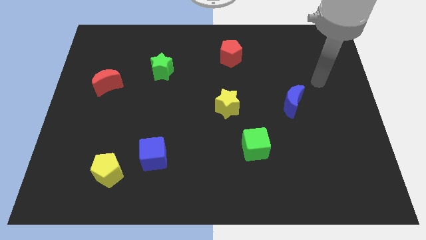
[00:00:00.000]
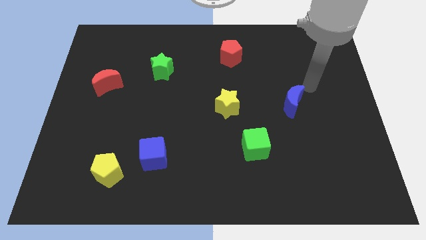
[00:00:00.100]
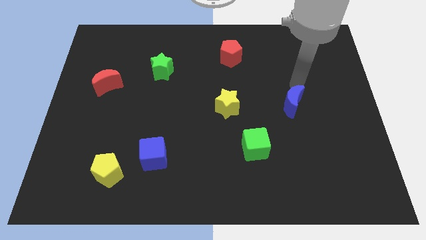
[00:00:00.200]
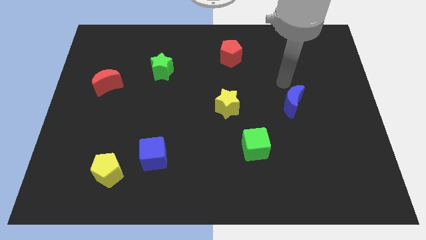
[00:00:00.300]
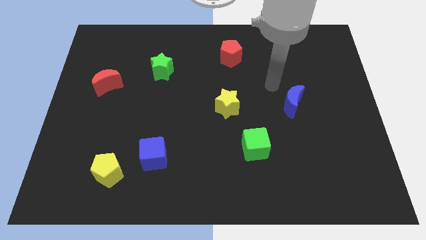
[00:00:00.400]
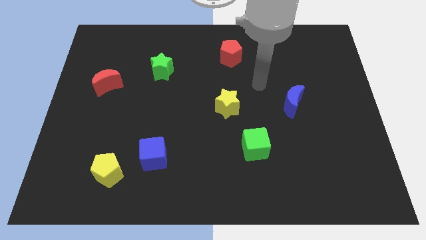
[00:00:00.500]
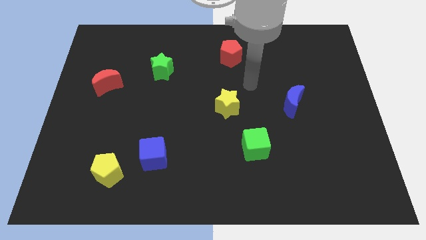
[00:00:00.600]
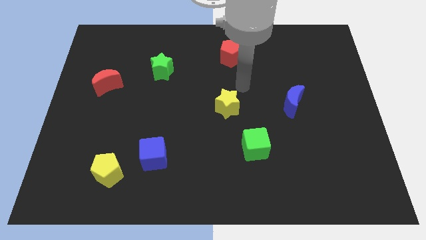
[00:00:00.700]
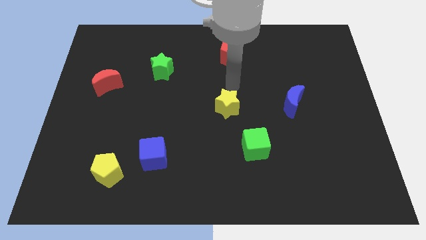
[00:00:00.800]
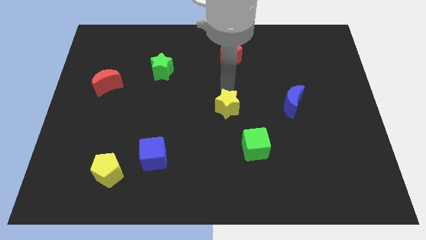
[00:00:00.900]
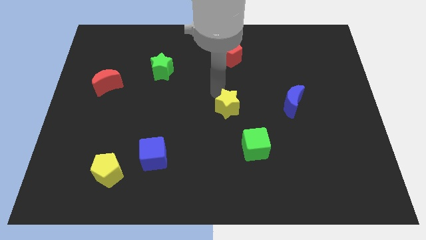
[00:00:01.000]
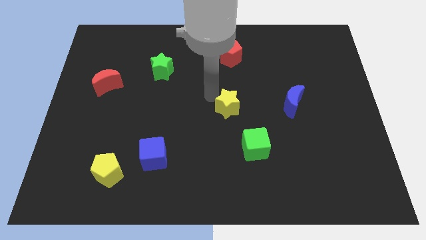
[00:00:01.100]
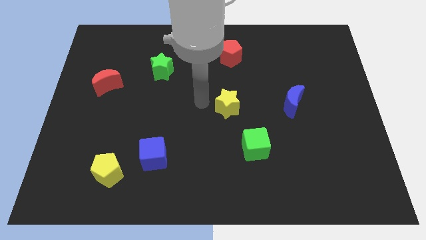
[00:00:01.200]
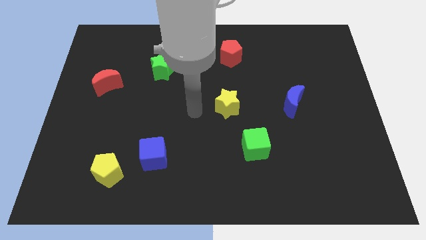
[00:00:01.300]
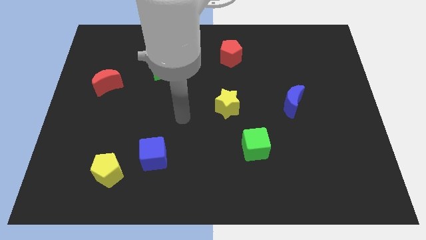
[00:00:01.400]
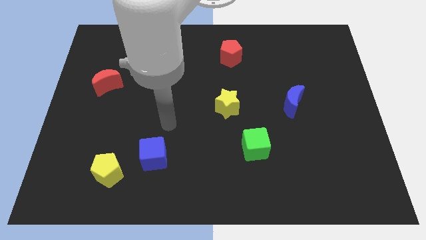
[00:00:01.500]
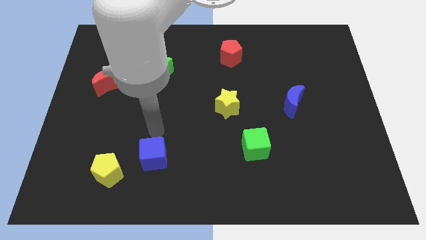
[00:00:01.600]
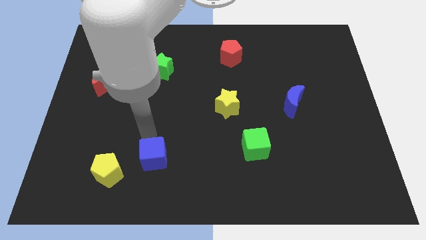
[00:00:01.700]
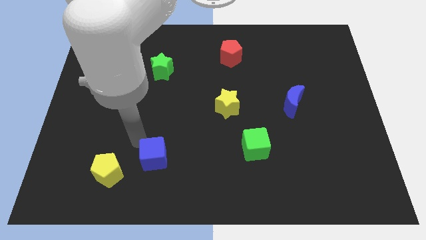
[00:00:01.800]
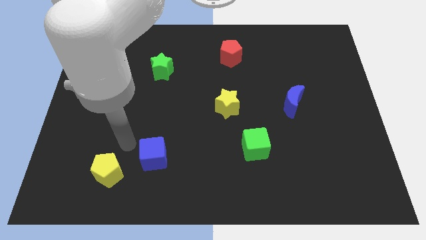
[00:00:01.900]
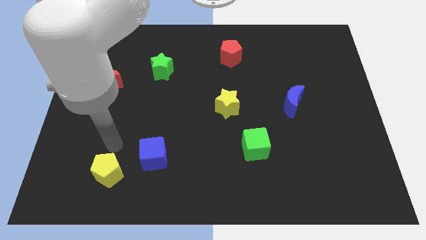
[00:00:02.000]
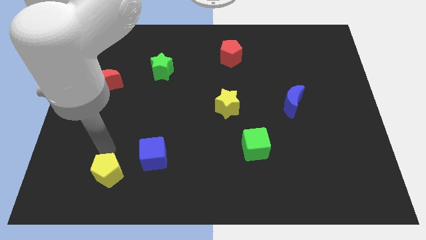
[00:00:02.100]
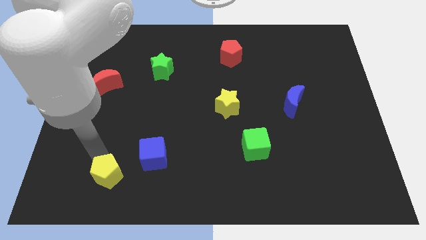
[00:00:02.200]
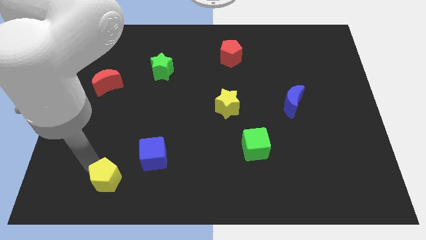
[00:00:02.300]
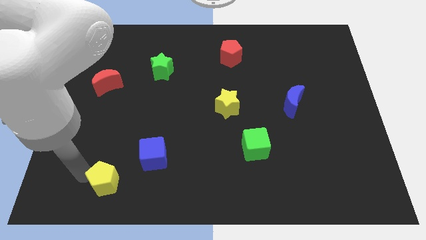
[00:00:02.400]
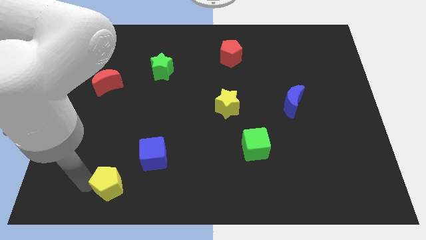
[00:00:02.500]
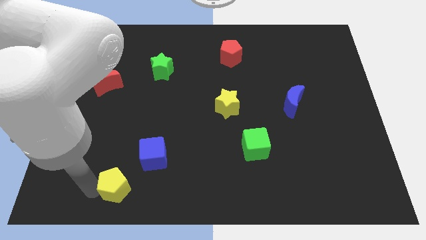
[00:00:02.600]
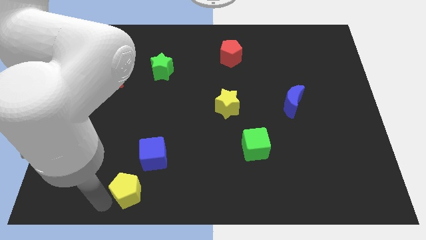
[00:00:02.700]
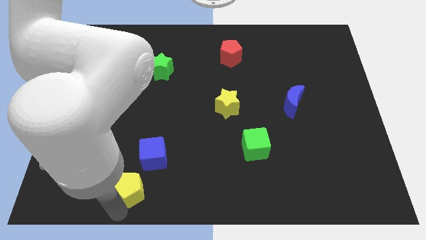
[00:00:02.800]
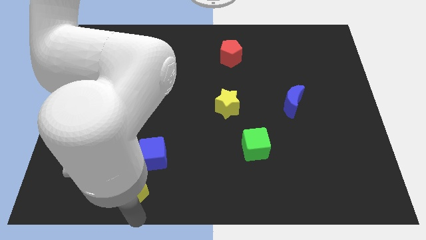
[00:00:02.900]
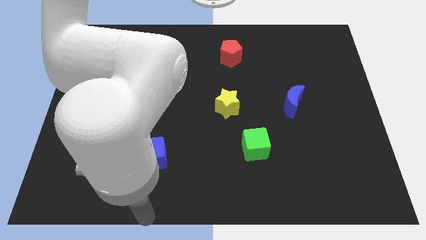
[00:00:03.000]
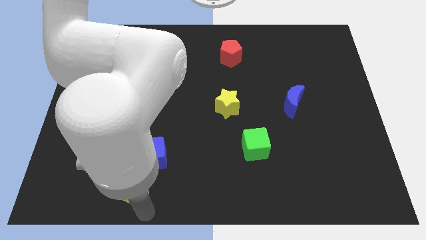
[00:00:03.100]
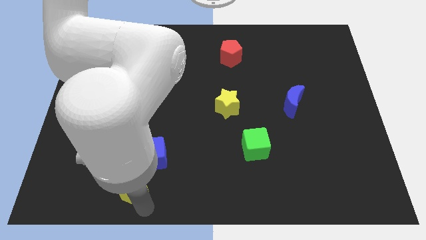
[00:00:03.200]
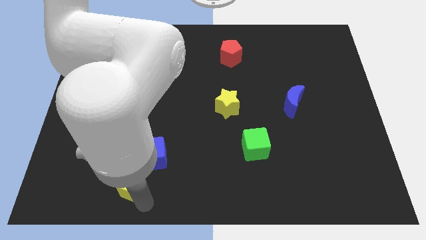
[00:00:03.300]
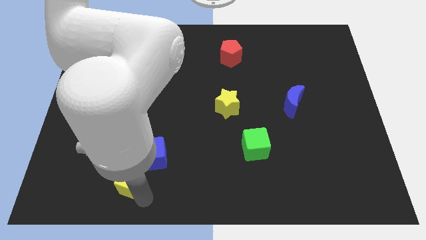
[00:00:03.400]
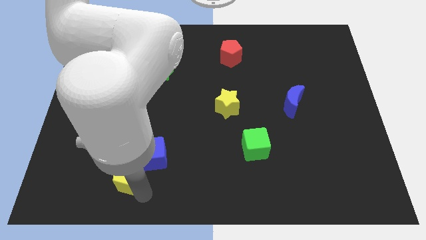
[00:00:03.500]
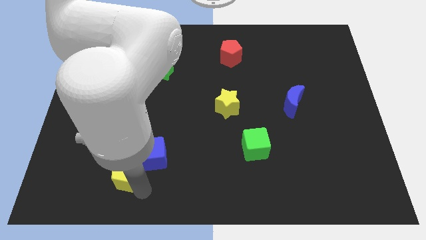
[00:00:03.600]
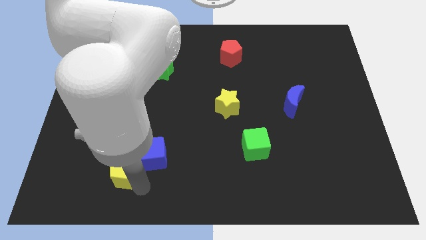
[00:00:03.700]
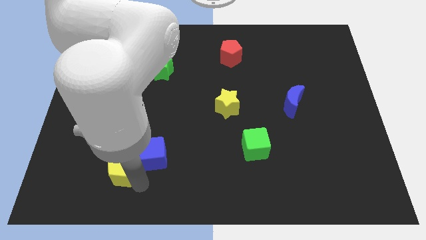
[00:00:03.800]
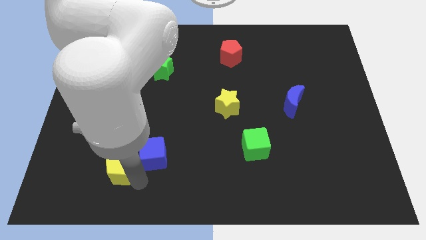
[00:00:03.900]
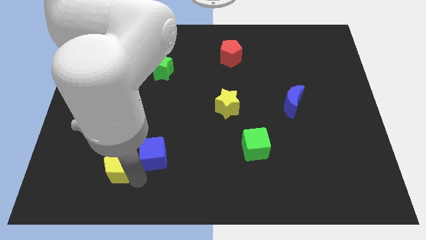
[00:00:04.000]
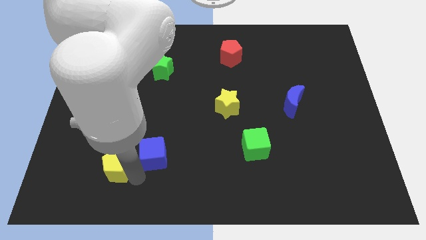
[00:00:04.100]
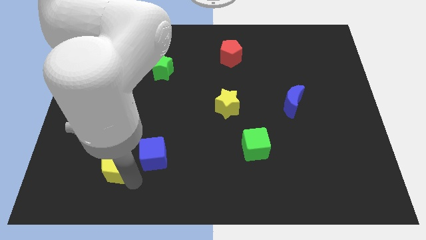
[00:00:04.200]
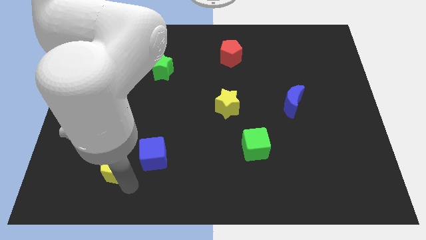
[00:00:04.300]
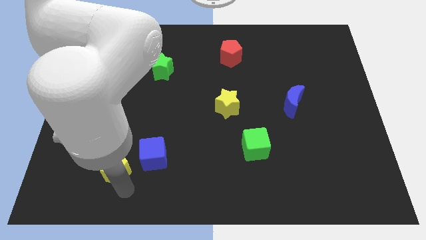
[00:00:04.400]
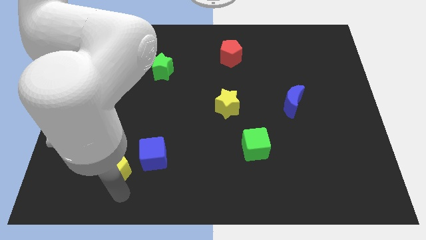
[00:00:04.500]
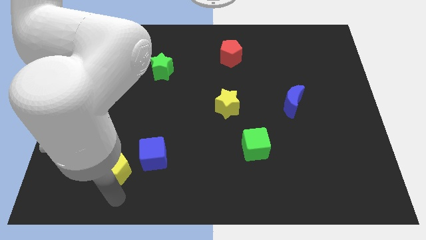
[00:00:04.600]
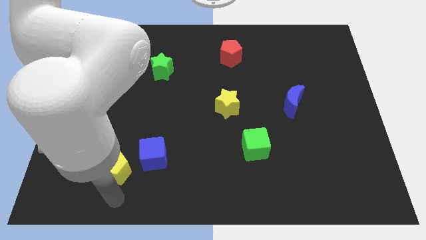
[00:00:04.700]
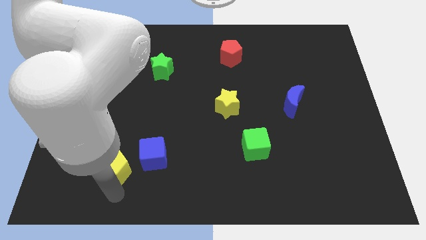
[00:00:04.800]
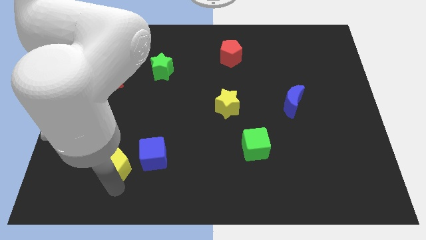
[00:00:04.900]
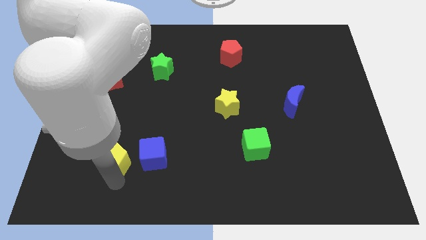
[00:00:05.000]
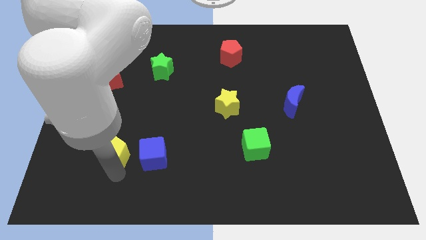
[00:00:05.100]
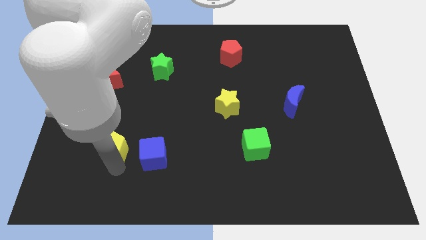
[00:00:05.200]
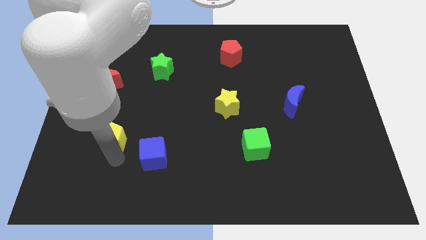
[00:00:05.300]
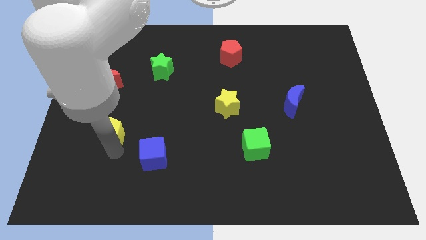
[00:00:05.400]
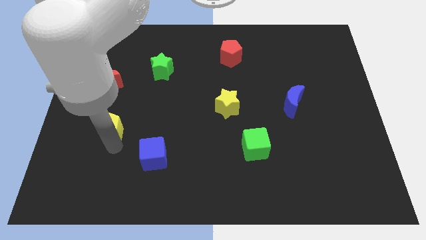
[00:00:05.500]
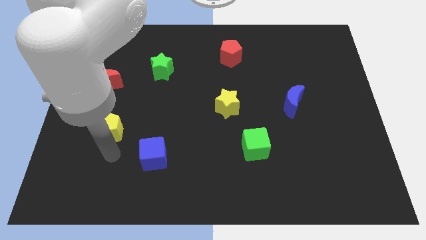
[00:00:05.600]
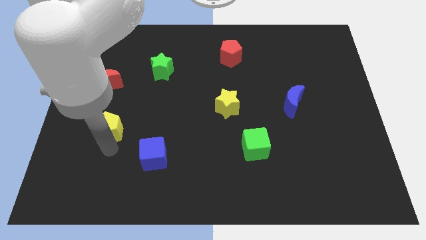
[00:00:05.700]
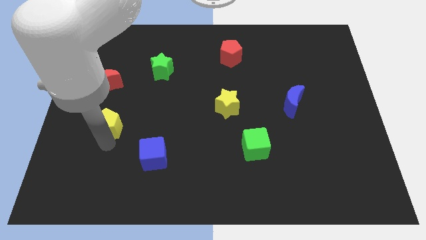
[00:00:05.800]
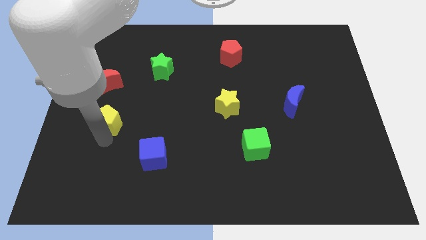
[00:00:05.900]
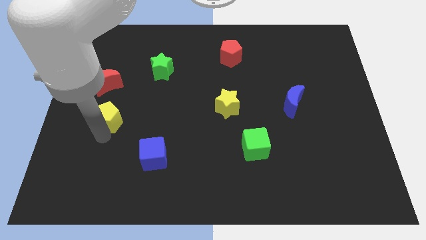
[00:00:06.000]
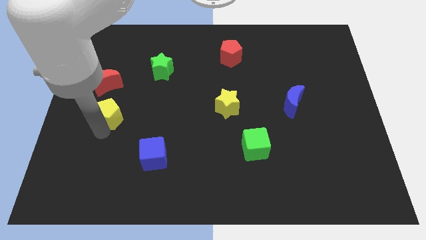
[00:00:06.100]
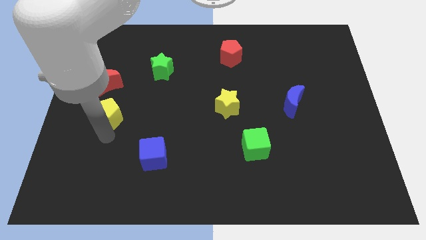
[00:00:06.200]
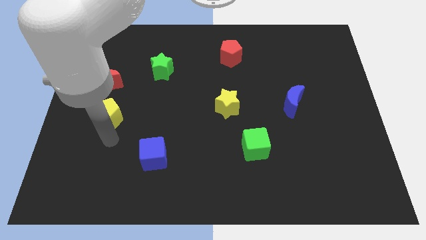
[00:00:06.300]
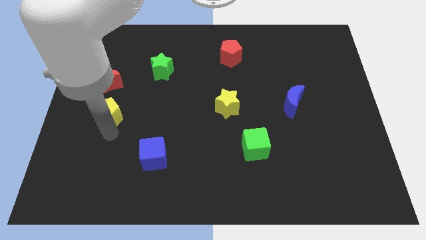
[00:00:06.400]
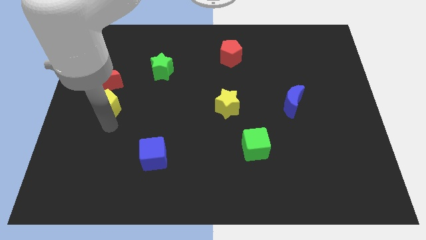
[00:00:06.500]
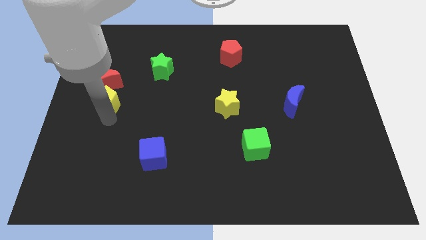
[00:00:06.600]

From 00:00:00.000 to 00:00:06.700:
slide the yellow pentagon to the red moon

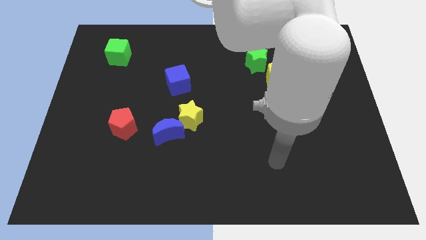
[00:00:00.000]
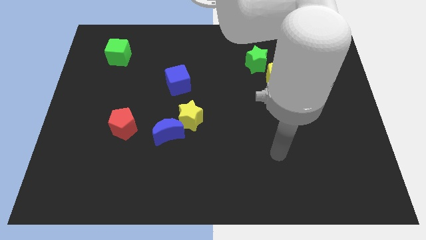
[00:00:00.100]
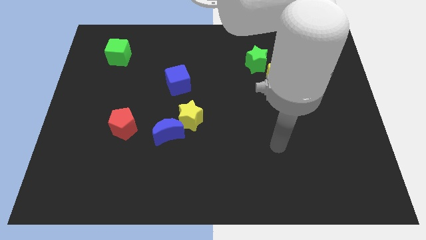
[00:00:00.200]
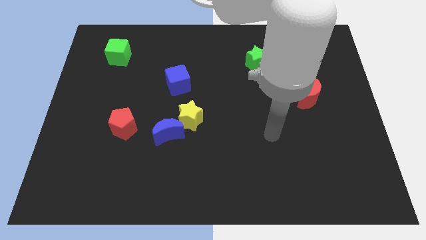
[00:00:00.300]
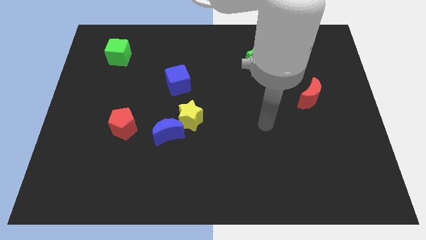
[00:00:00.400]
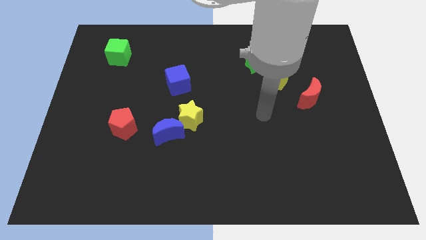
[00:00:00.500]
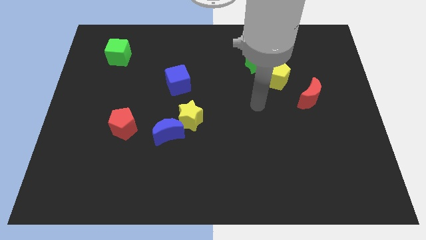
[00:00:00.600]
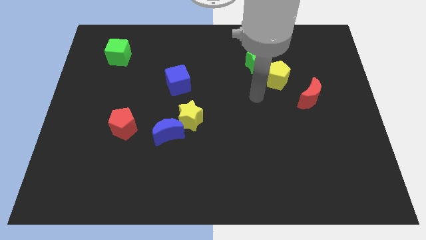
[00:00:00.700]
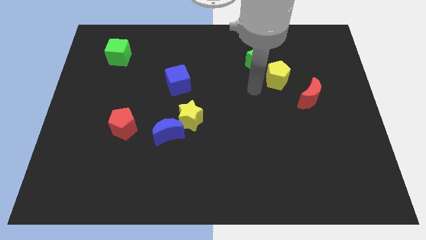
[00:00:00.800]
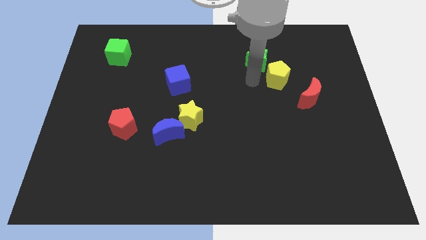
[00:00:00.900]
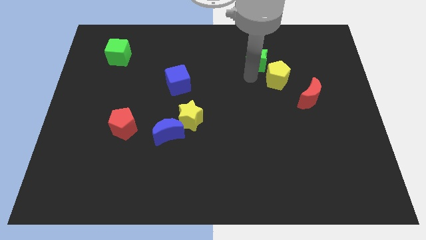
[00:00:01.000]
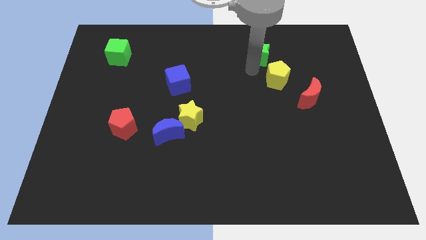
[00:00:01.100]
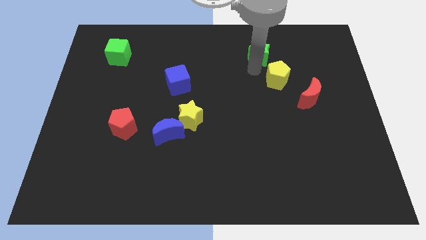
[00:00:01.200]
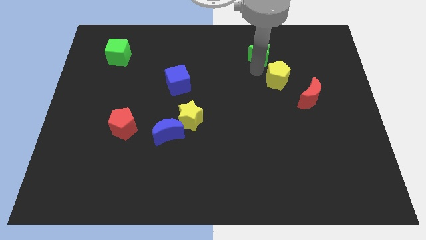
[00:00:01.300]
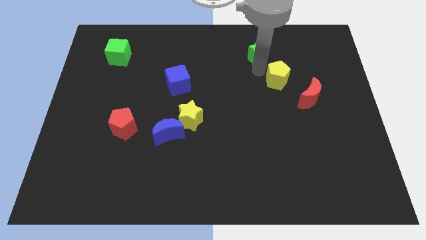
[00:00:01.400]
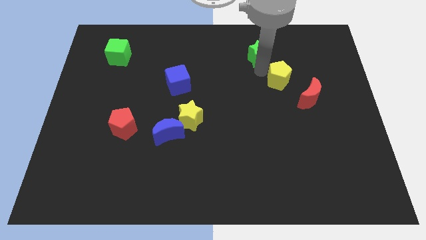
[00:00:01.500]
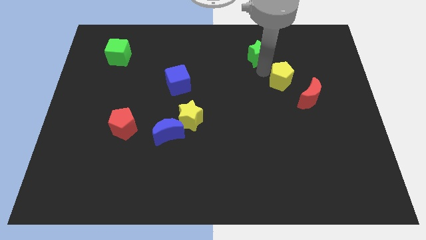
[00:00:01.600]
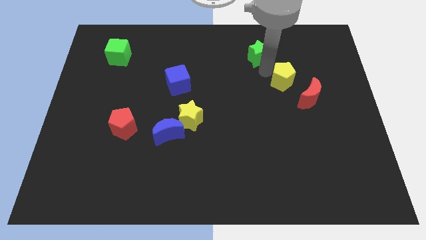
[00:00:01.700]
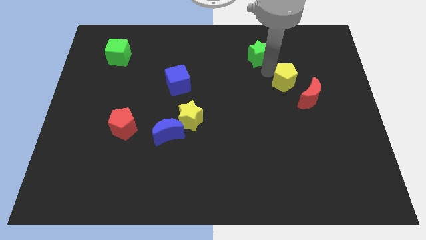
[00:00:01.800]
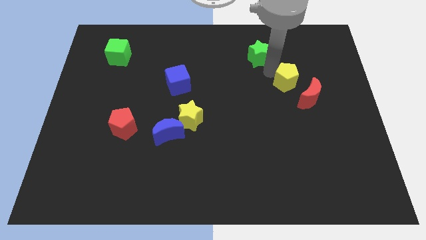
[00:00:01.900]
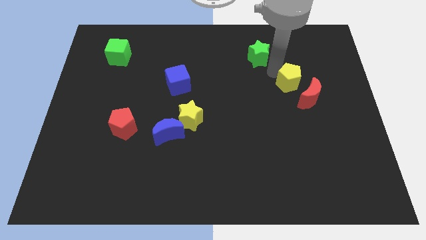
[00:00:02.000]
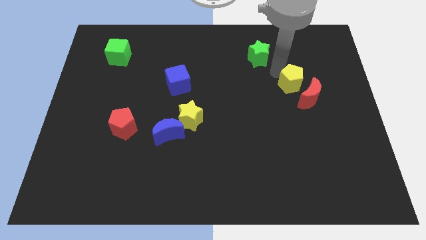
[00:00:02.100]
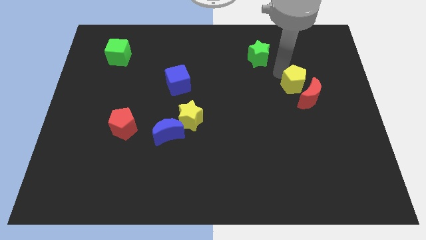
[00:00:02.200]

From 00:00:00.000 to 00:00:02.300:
slide the yellow pentagon close to the red moon
